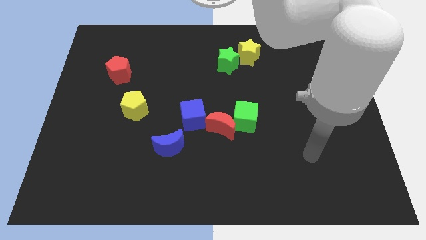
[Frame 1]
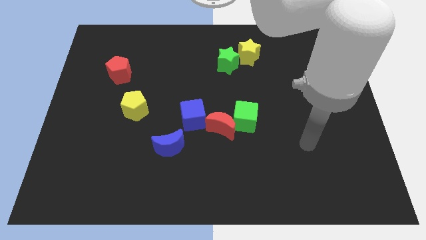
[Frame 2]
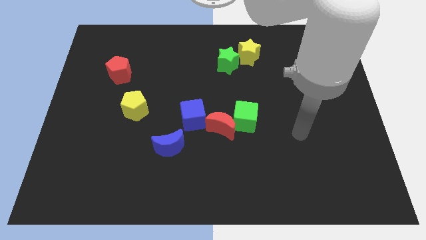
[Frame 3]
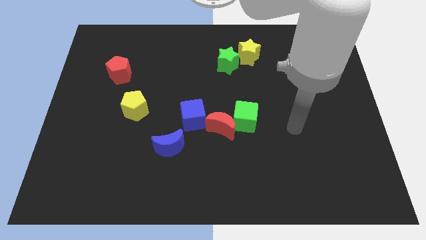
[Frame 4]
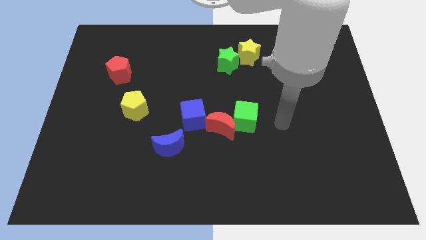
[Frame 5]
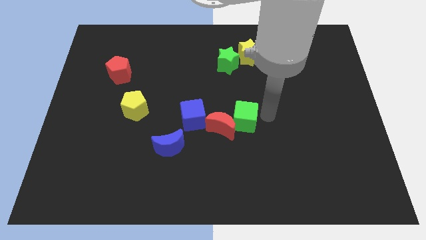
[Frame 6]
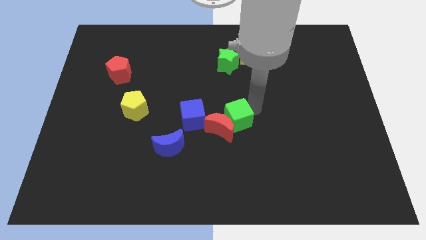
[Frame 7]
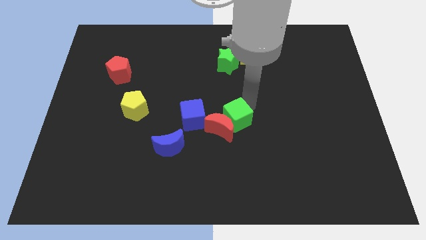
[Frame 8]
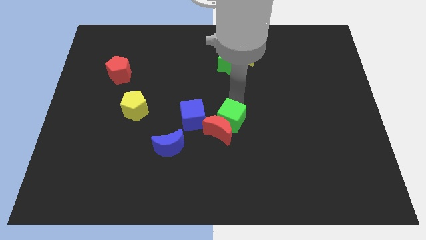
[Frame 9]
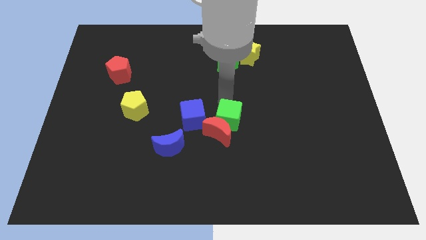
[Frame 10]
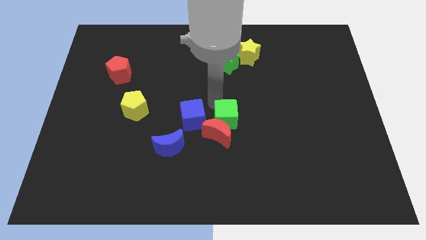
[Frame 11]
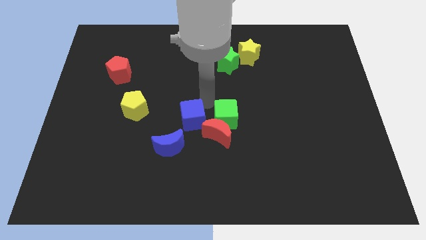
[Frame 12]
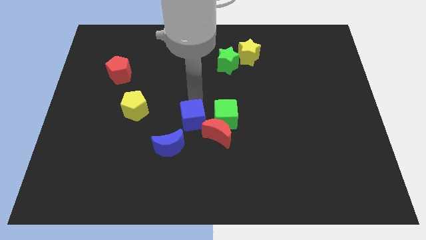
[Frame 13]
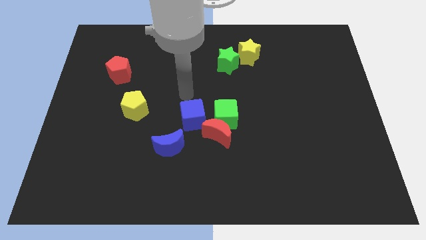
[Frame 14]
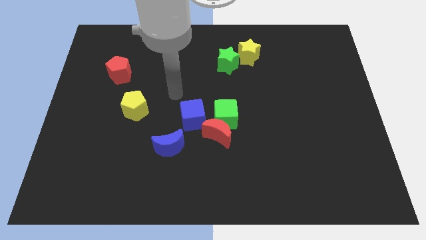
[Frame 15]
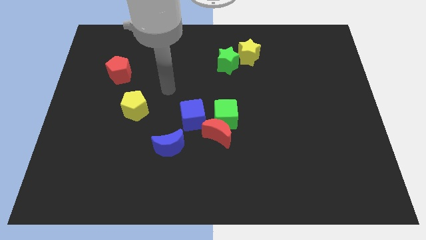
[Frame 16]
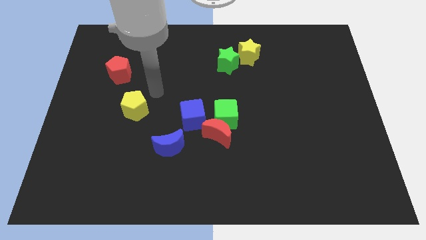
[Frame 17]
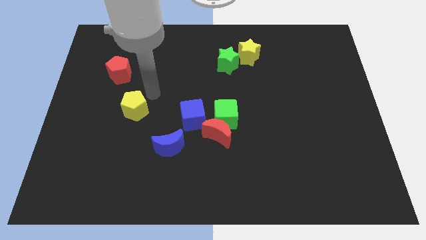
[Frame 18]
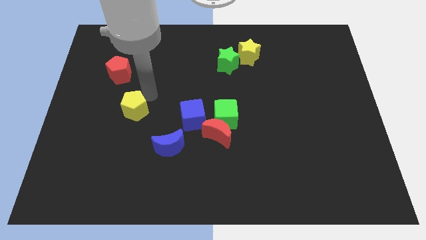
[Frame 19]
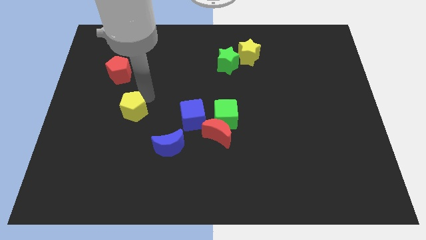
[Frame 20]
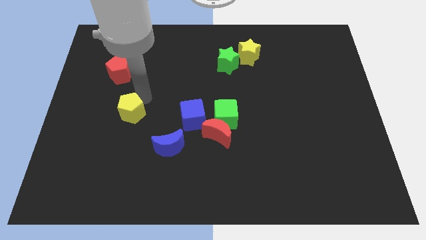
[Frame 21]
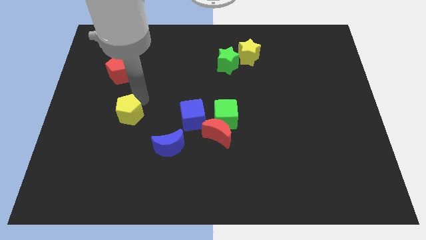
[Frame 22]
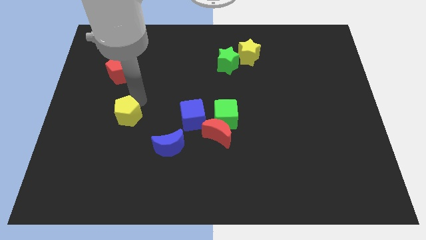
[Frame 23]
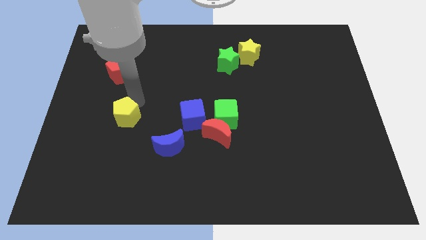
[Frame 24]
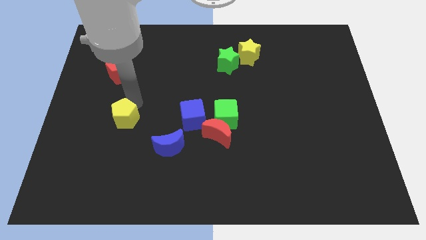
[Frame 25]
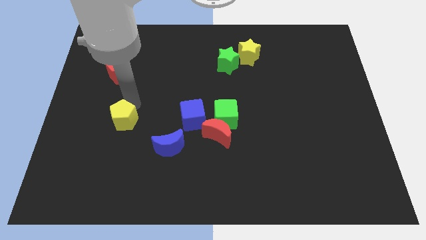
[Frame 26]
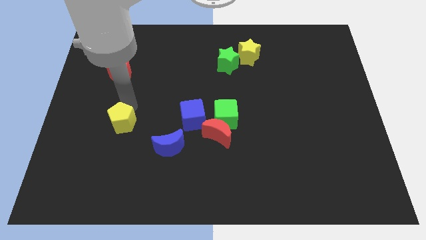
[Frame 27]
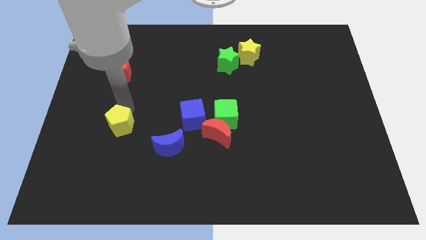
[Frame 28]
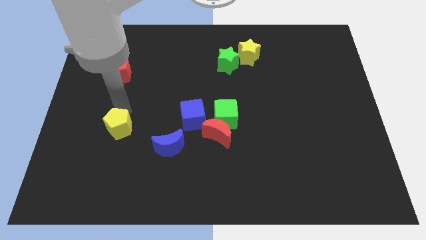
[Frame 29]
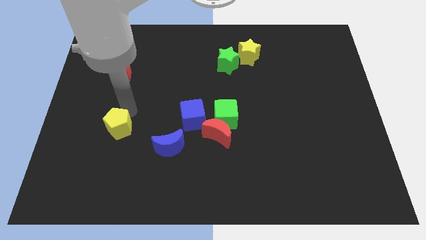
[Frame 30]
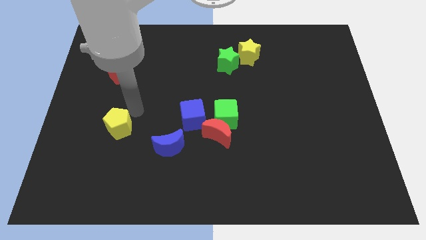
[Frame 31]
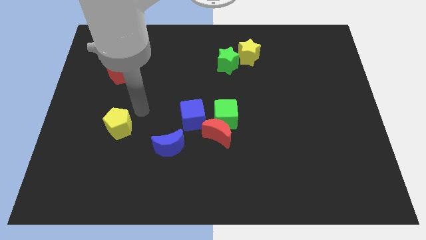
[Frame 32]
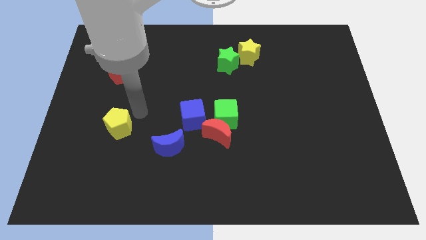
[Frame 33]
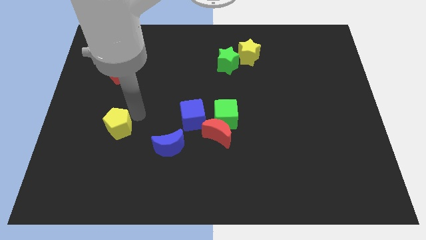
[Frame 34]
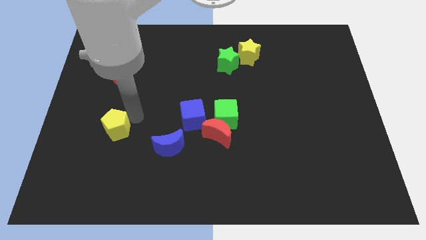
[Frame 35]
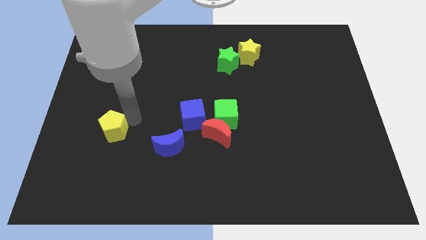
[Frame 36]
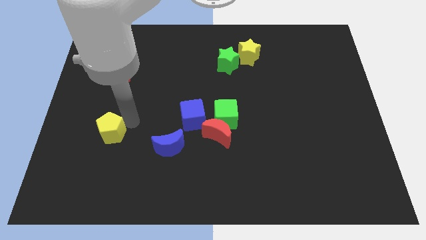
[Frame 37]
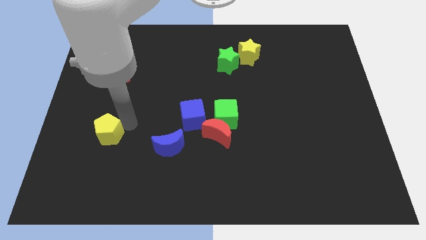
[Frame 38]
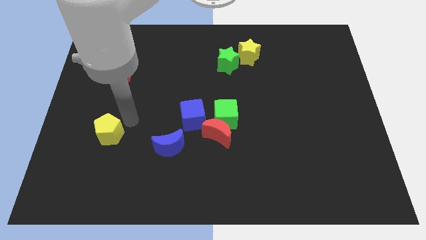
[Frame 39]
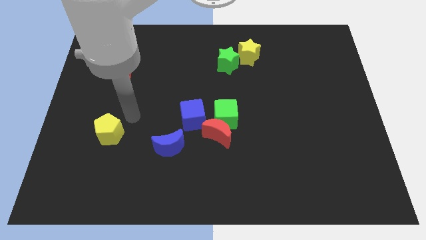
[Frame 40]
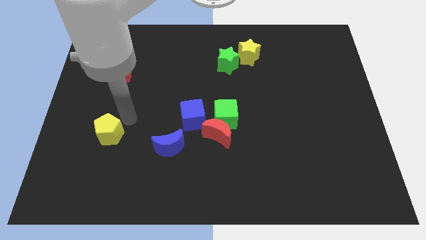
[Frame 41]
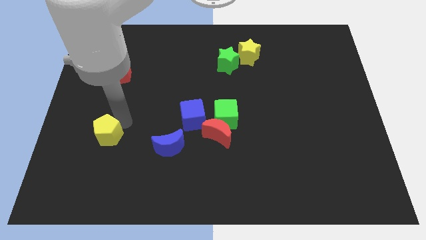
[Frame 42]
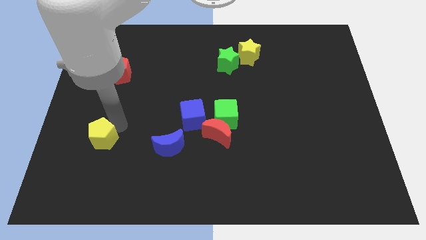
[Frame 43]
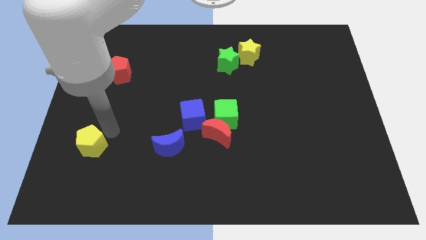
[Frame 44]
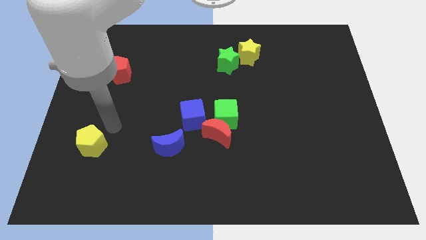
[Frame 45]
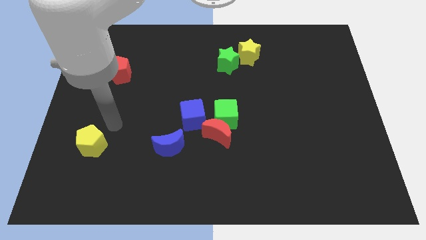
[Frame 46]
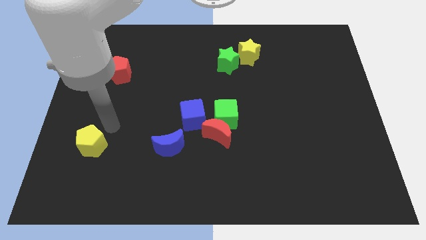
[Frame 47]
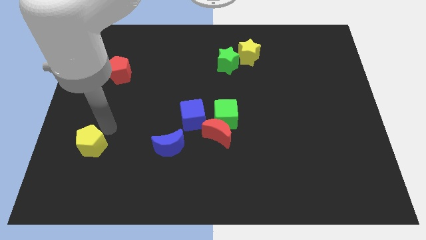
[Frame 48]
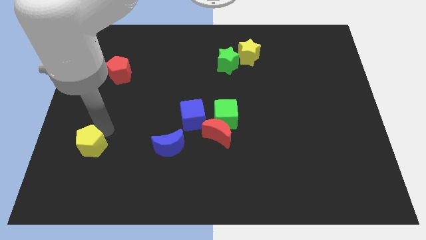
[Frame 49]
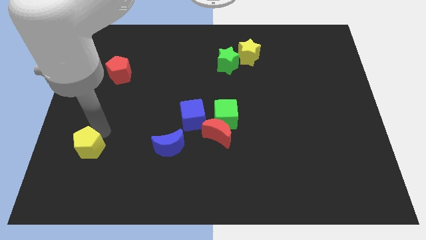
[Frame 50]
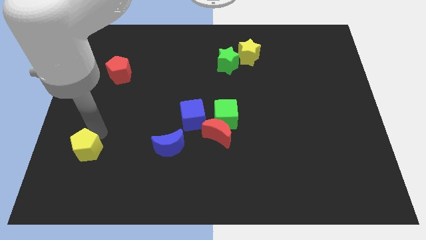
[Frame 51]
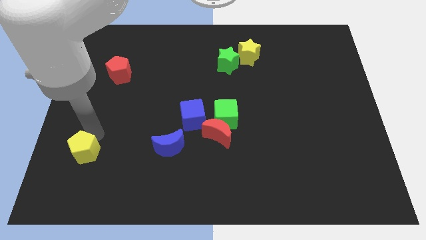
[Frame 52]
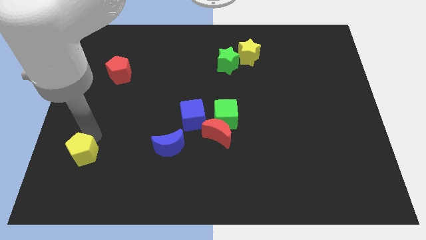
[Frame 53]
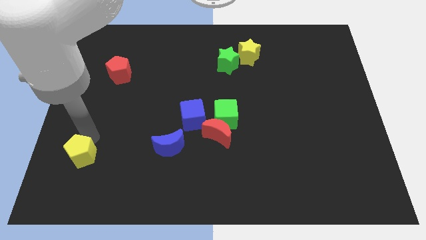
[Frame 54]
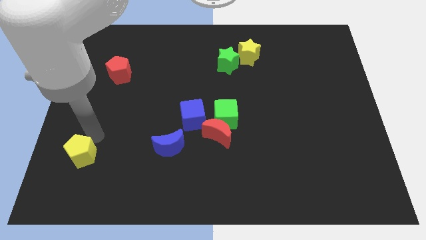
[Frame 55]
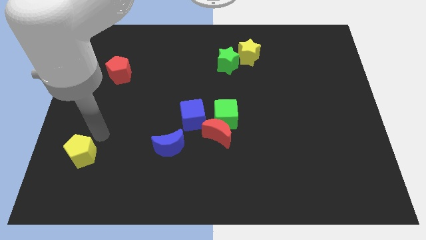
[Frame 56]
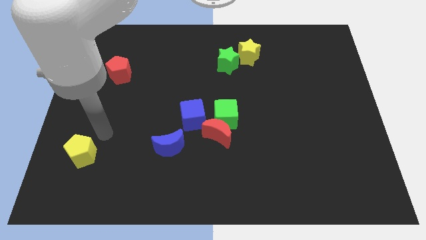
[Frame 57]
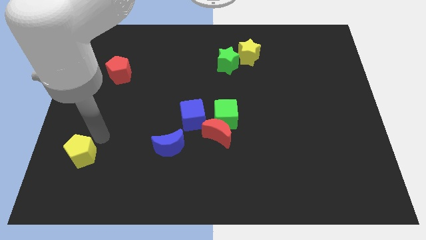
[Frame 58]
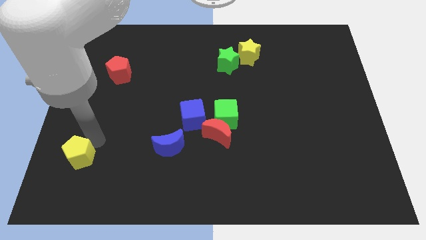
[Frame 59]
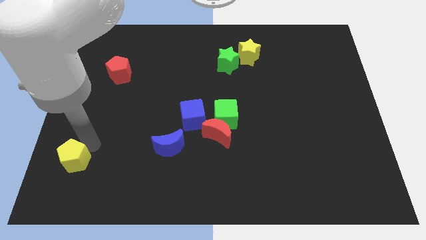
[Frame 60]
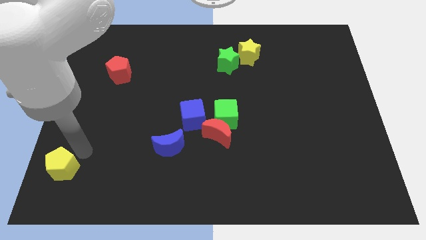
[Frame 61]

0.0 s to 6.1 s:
slide the yellow pentagon to the bottom left corner

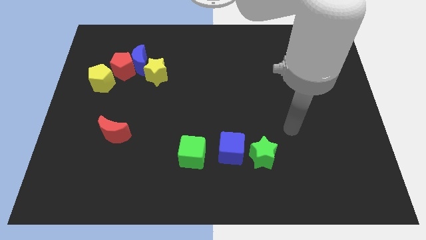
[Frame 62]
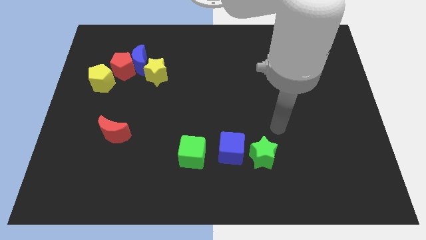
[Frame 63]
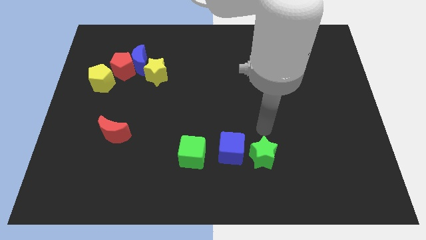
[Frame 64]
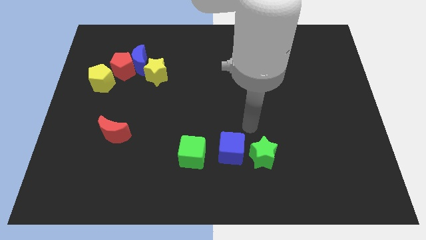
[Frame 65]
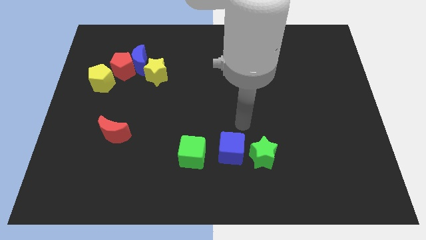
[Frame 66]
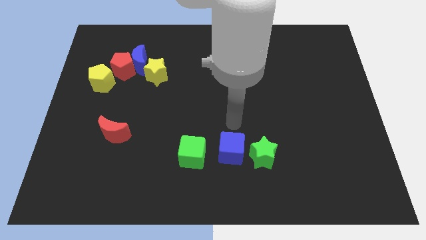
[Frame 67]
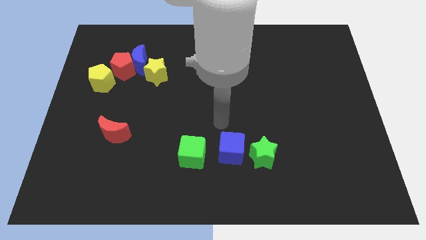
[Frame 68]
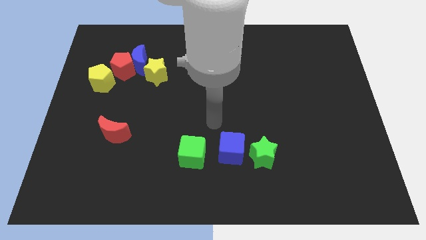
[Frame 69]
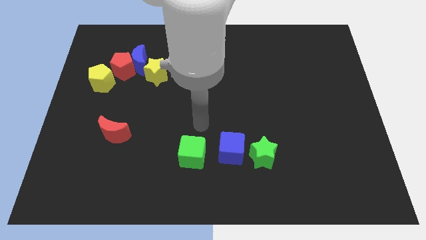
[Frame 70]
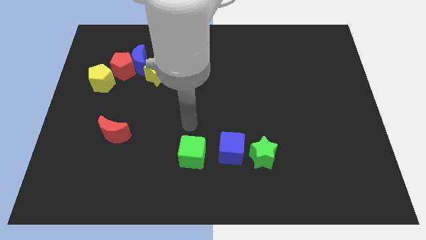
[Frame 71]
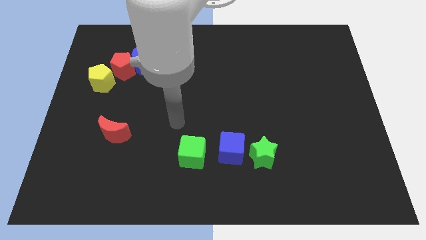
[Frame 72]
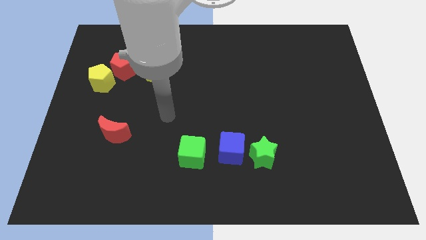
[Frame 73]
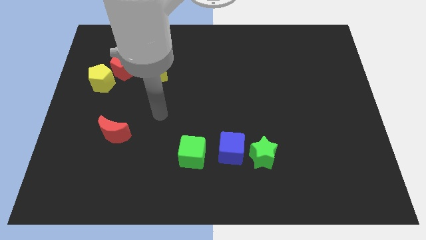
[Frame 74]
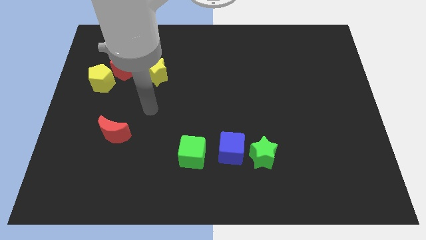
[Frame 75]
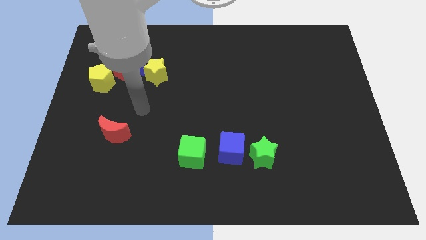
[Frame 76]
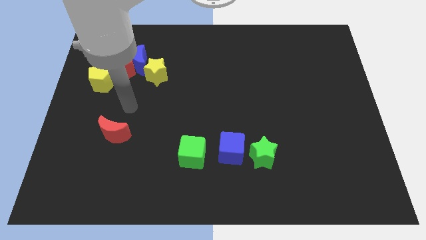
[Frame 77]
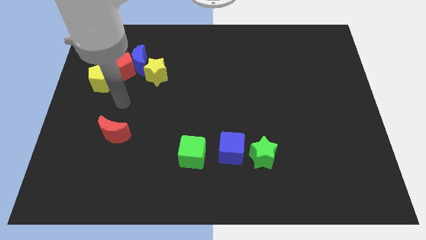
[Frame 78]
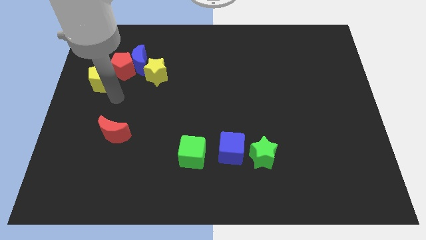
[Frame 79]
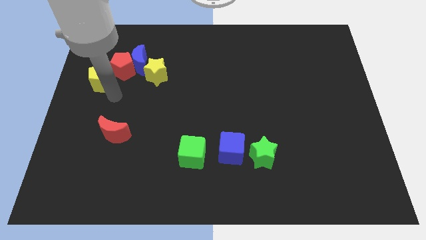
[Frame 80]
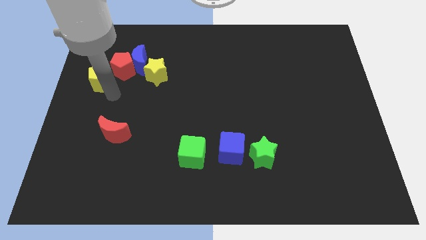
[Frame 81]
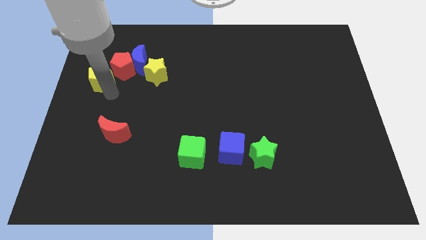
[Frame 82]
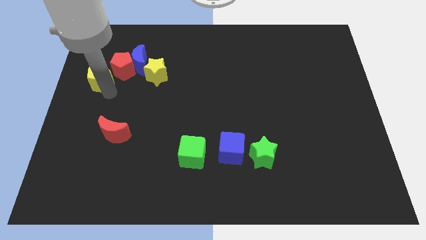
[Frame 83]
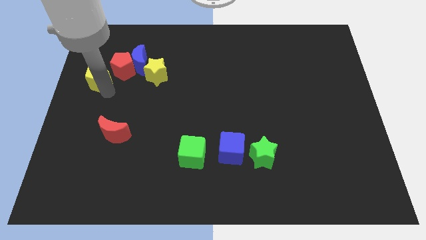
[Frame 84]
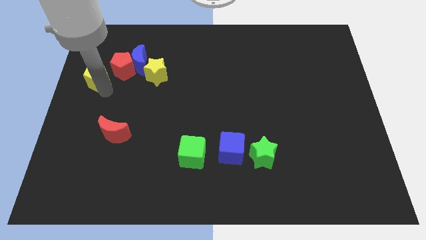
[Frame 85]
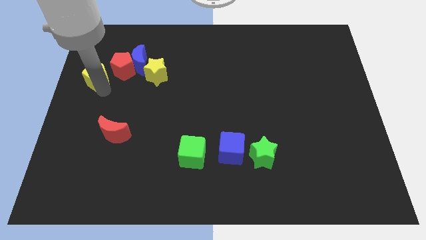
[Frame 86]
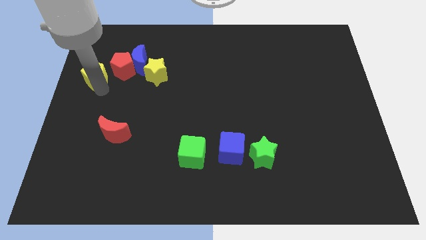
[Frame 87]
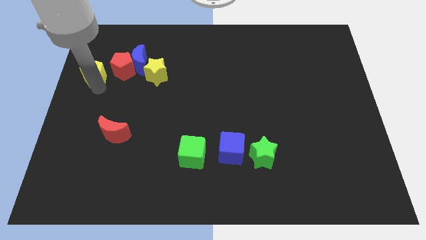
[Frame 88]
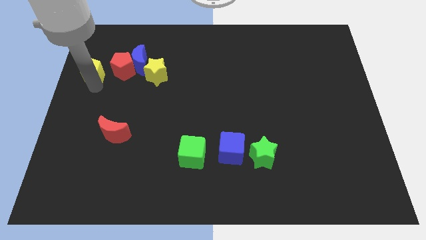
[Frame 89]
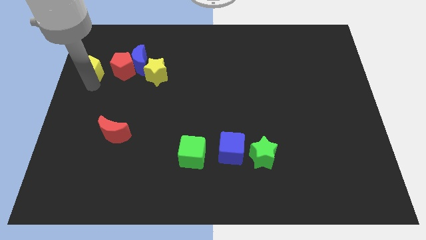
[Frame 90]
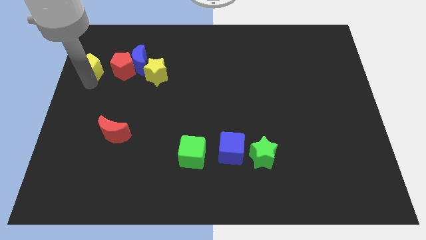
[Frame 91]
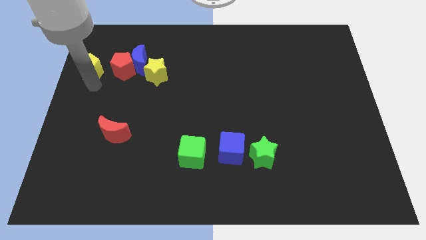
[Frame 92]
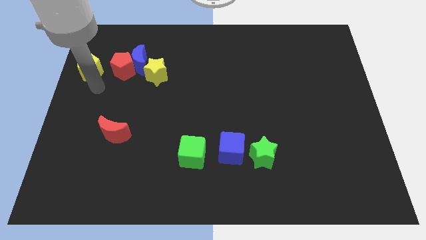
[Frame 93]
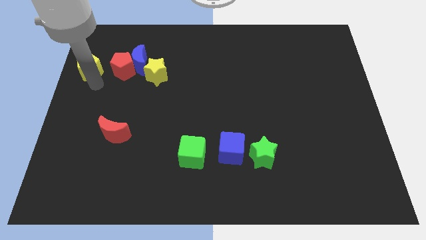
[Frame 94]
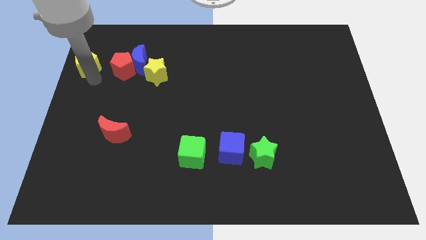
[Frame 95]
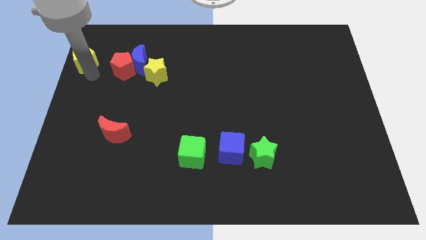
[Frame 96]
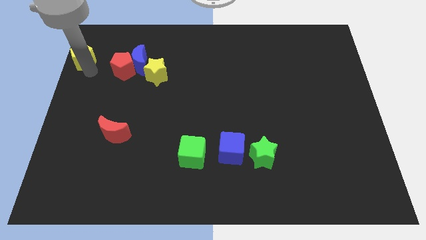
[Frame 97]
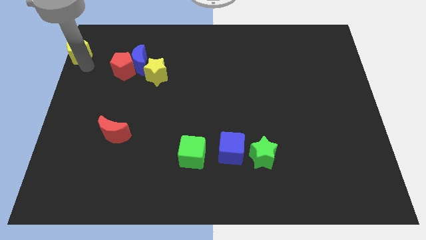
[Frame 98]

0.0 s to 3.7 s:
put the yellow pentagon to the top left of the board
